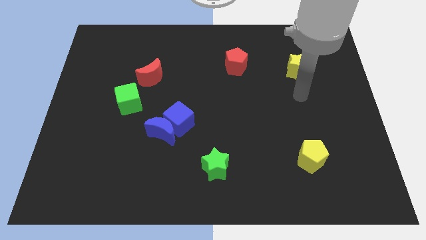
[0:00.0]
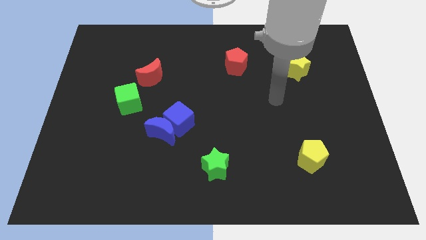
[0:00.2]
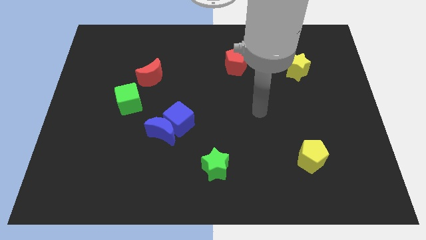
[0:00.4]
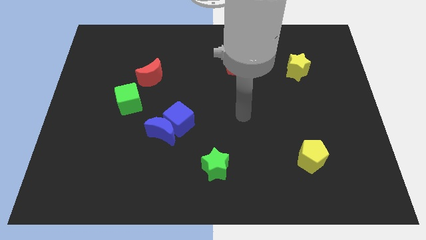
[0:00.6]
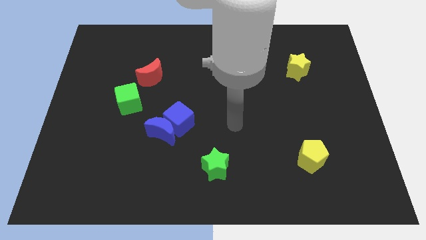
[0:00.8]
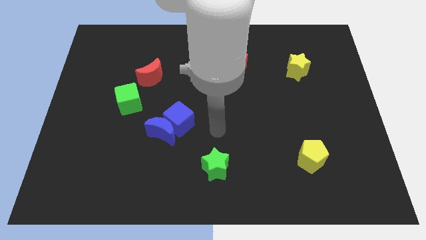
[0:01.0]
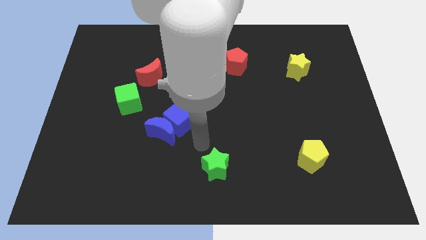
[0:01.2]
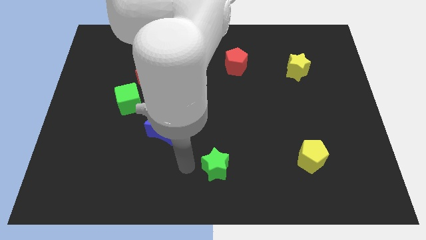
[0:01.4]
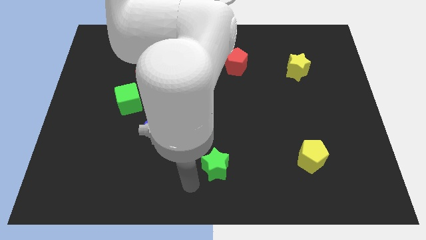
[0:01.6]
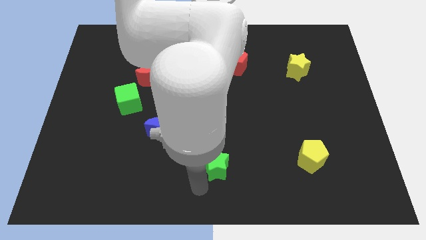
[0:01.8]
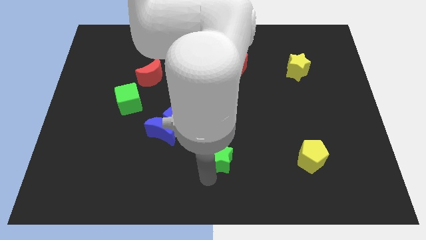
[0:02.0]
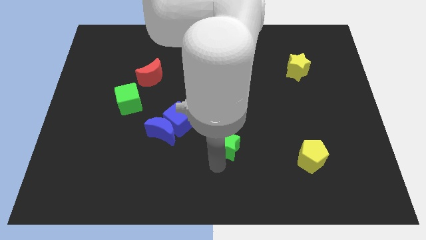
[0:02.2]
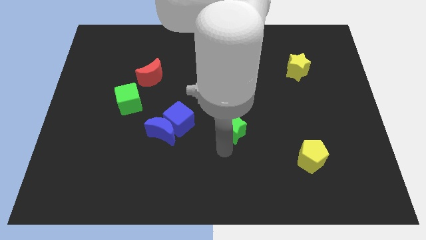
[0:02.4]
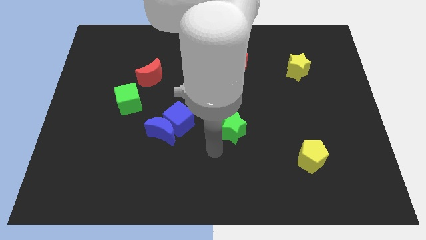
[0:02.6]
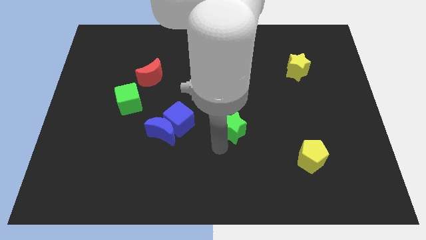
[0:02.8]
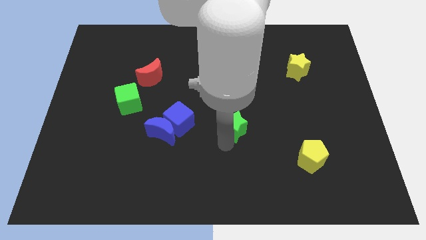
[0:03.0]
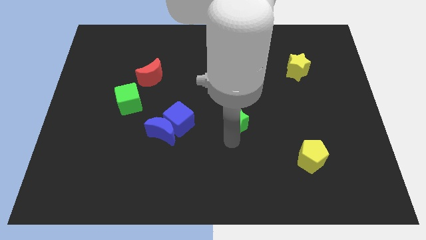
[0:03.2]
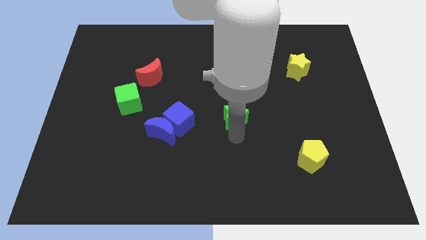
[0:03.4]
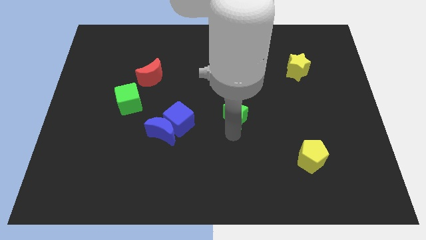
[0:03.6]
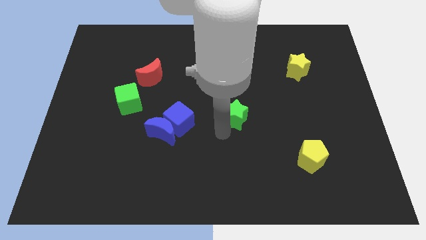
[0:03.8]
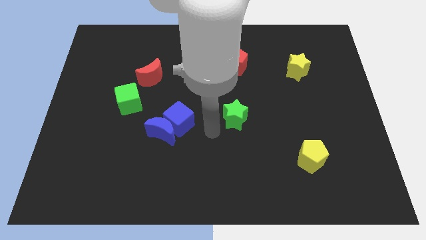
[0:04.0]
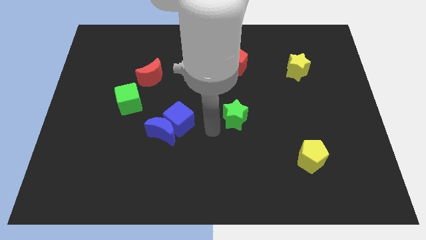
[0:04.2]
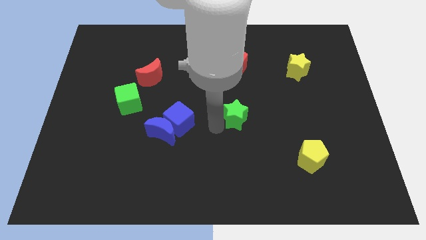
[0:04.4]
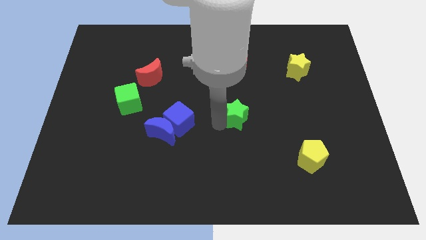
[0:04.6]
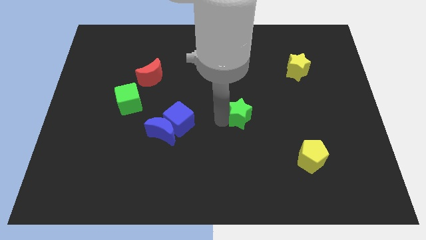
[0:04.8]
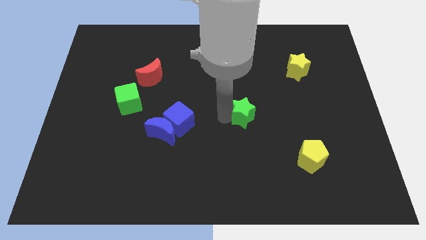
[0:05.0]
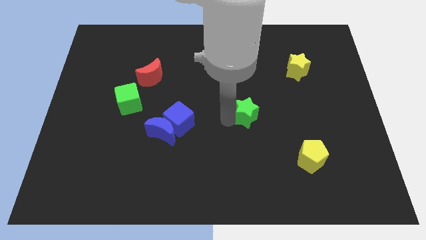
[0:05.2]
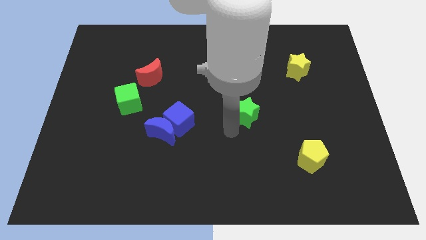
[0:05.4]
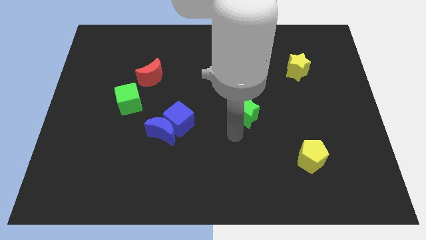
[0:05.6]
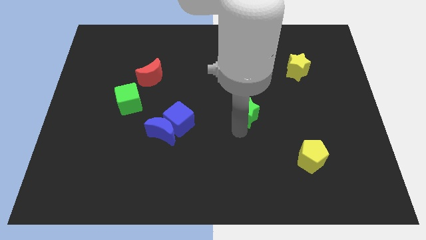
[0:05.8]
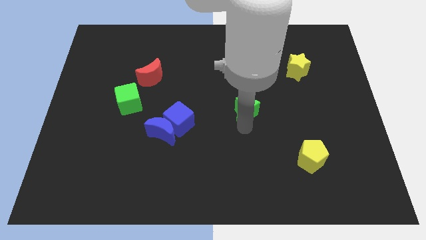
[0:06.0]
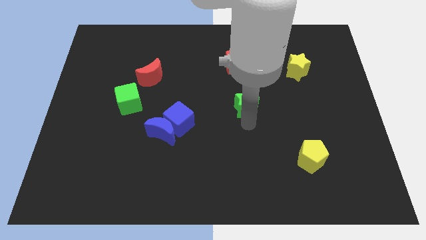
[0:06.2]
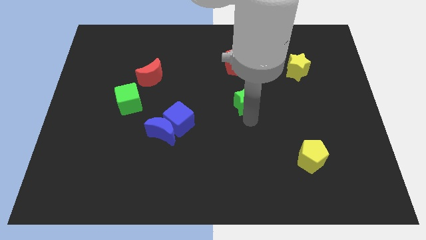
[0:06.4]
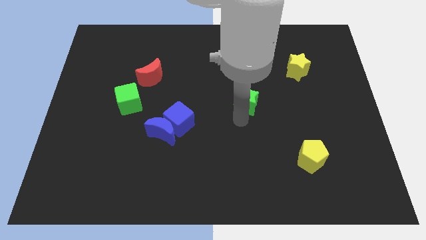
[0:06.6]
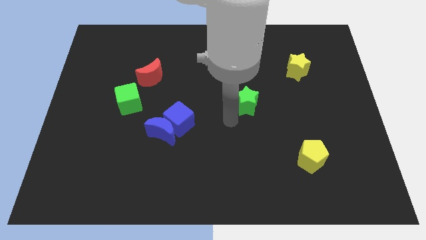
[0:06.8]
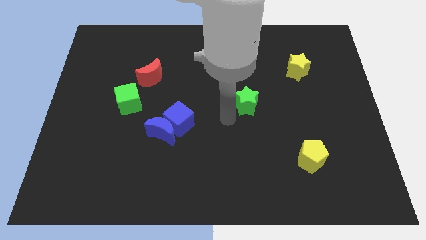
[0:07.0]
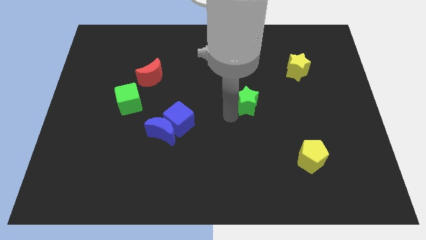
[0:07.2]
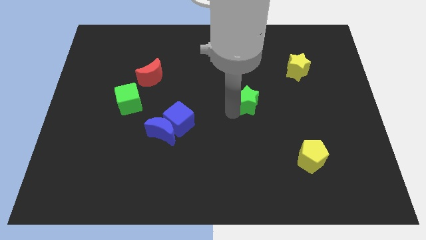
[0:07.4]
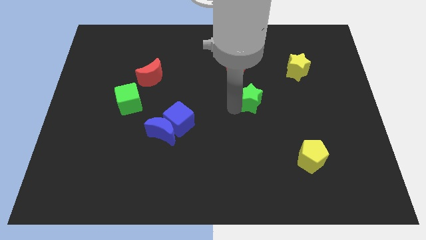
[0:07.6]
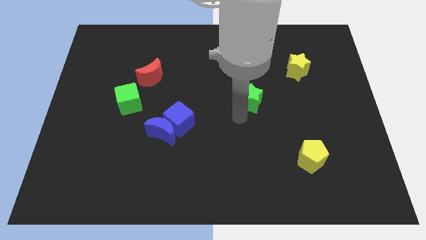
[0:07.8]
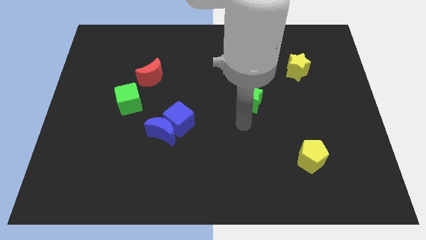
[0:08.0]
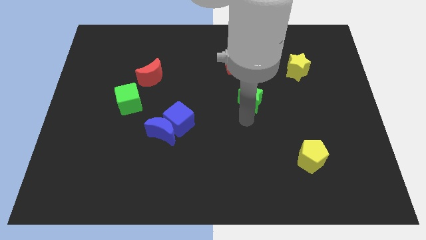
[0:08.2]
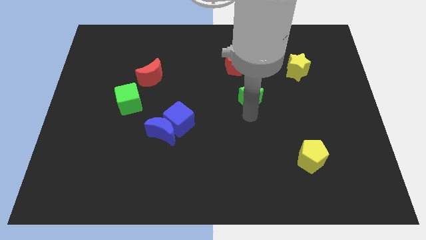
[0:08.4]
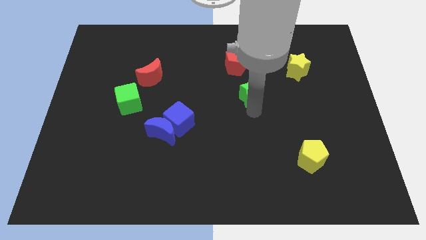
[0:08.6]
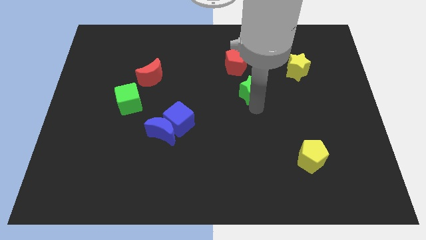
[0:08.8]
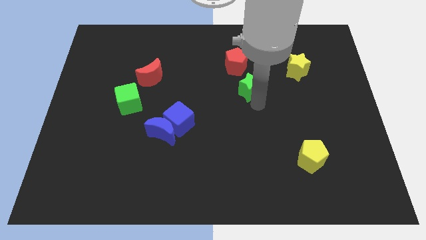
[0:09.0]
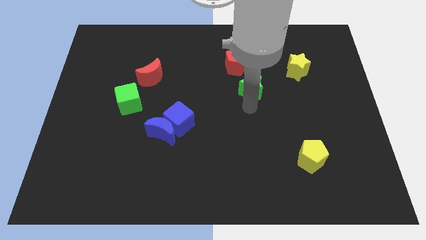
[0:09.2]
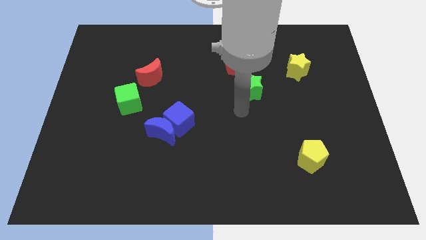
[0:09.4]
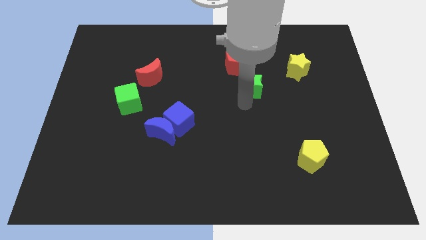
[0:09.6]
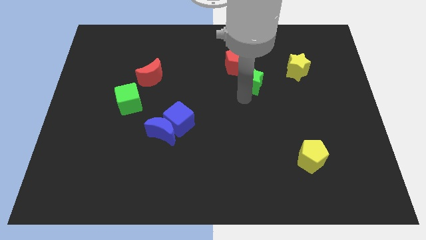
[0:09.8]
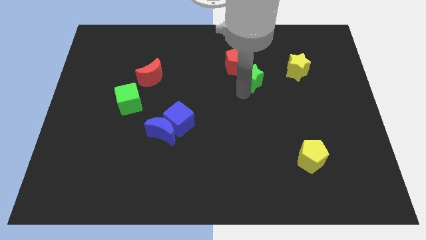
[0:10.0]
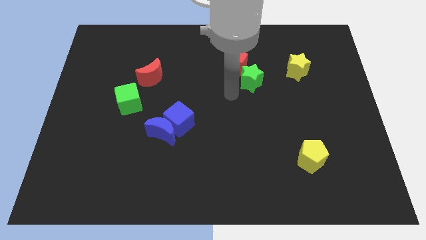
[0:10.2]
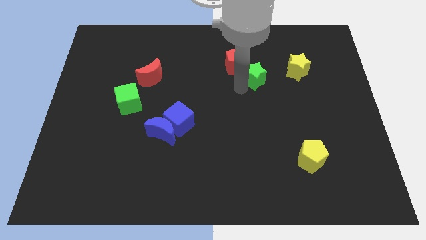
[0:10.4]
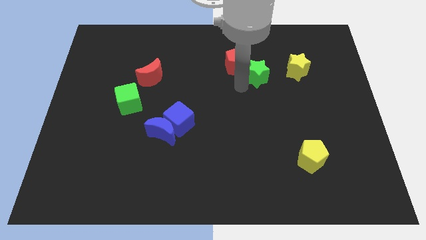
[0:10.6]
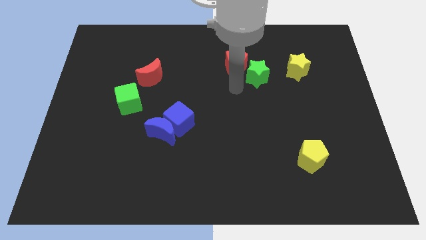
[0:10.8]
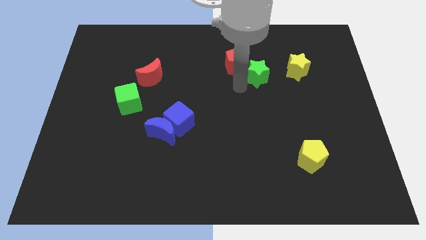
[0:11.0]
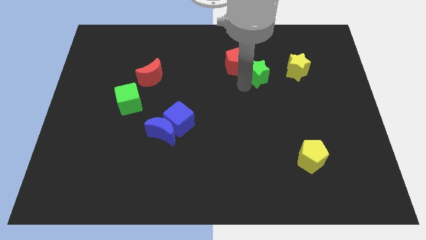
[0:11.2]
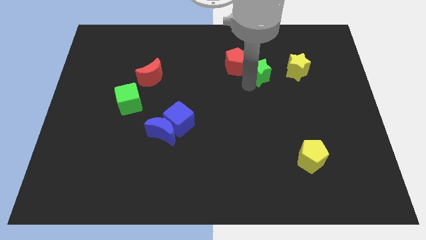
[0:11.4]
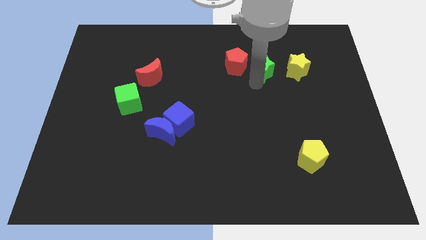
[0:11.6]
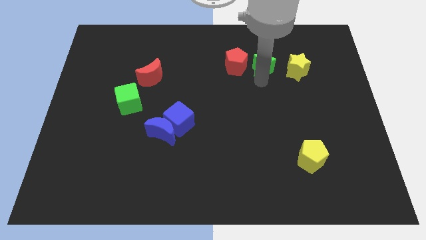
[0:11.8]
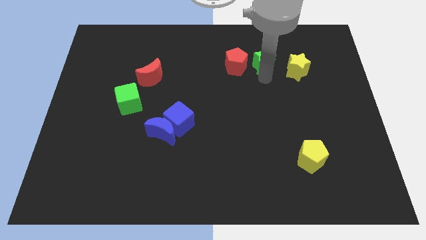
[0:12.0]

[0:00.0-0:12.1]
move the green star to the top left of the yellow star
